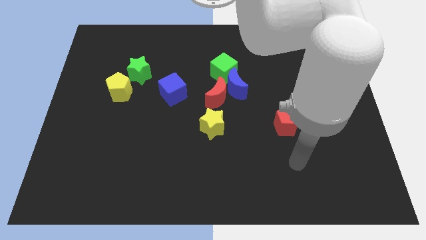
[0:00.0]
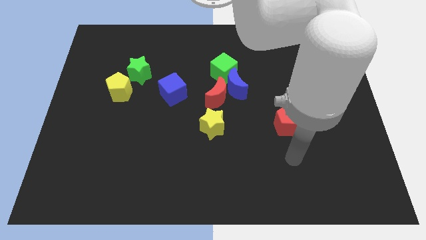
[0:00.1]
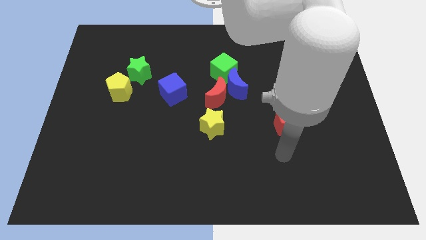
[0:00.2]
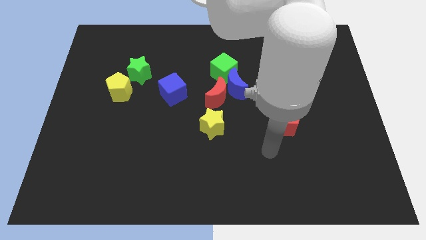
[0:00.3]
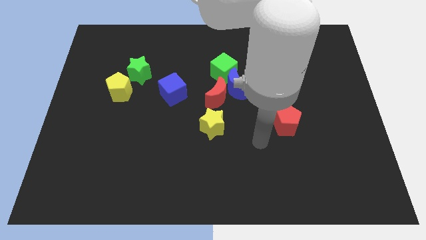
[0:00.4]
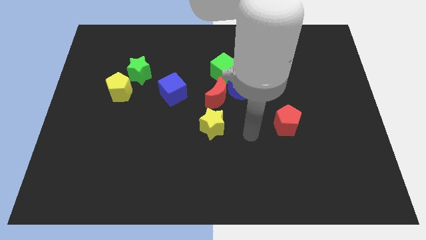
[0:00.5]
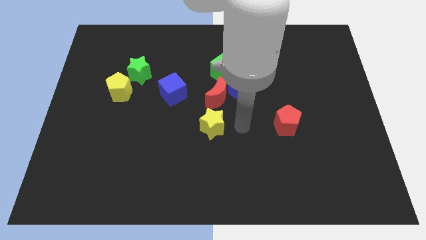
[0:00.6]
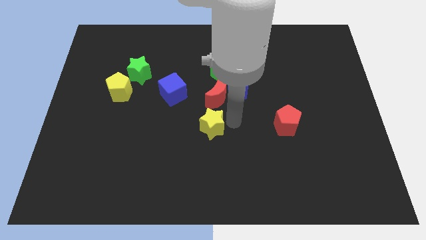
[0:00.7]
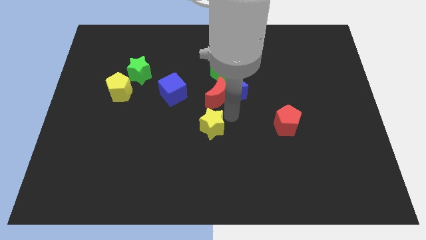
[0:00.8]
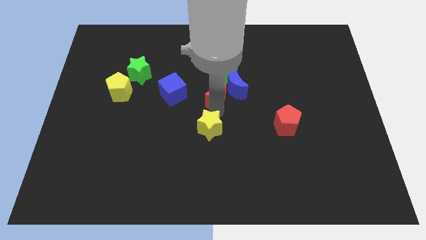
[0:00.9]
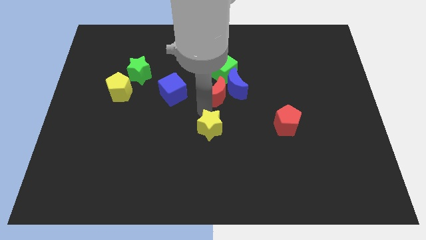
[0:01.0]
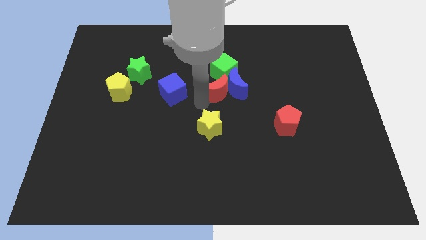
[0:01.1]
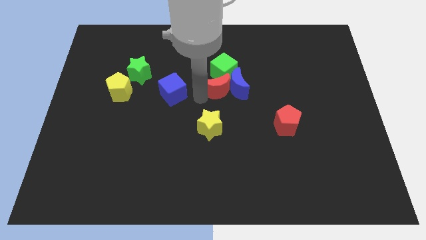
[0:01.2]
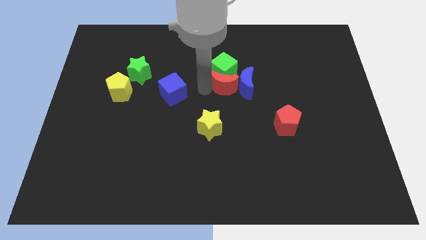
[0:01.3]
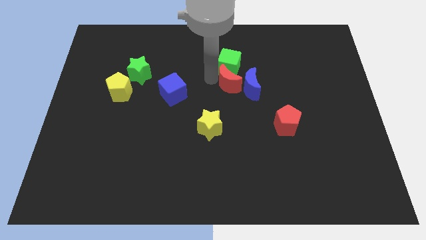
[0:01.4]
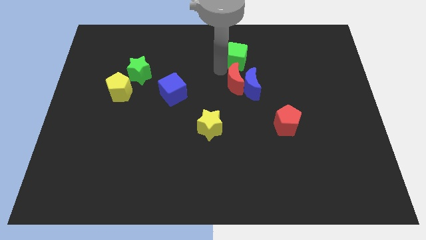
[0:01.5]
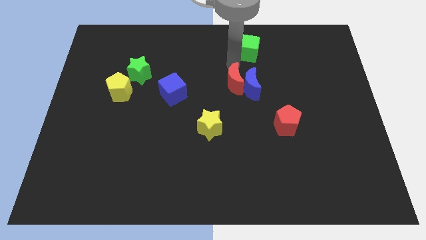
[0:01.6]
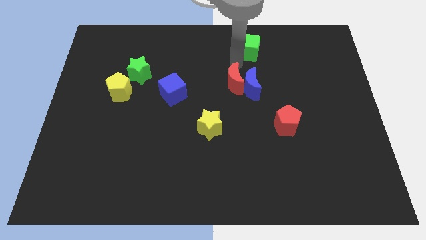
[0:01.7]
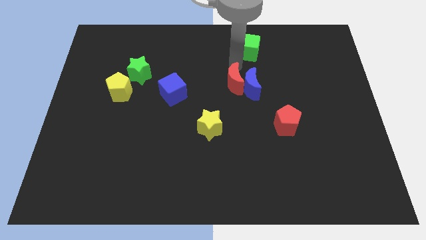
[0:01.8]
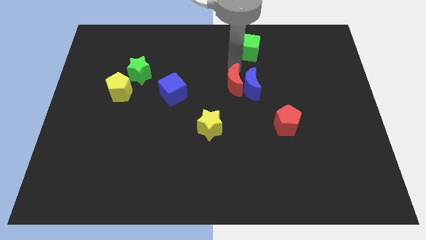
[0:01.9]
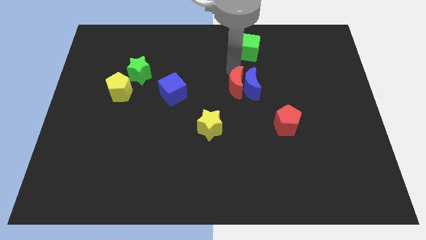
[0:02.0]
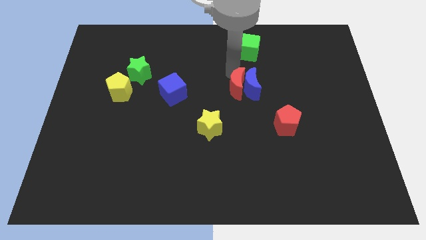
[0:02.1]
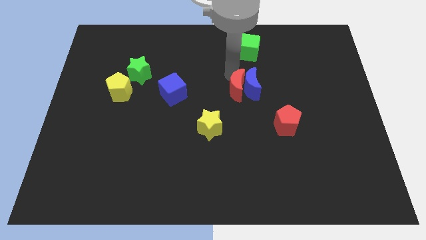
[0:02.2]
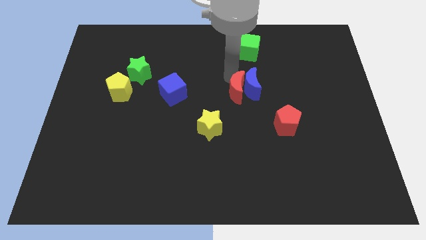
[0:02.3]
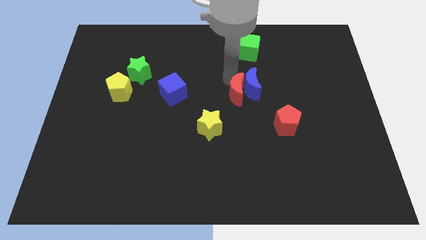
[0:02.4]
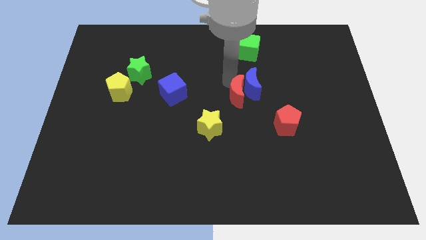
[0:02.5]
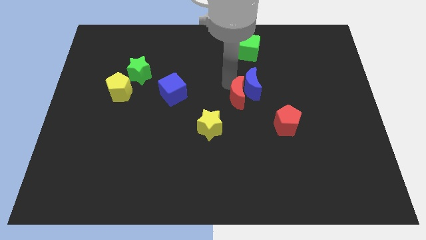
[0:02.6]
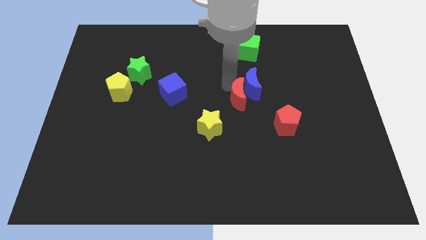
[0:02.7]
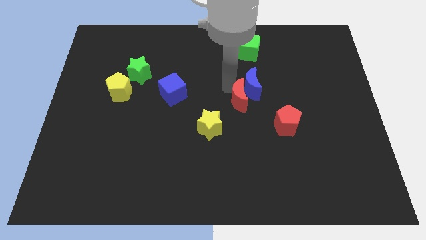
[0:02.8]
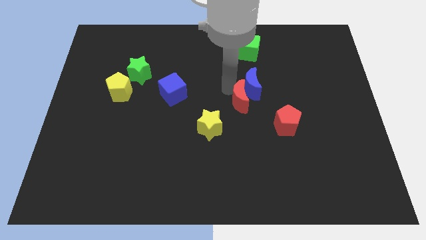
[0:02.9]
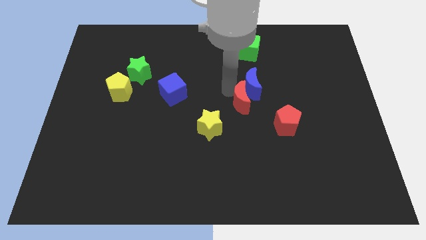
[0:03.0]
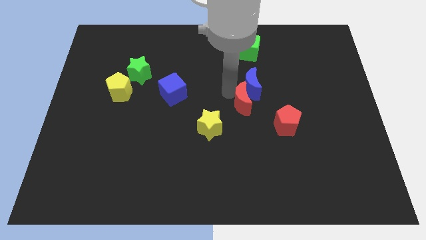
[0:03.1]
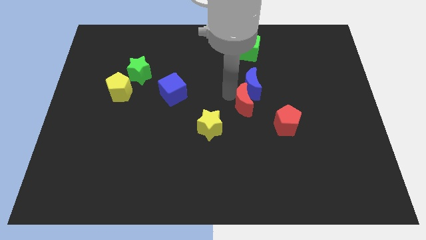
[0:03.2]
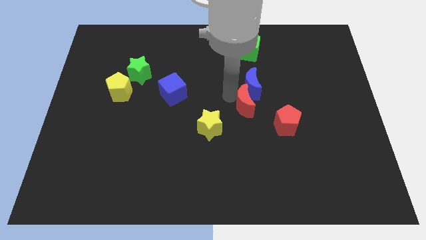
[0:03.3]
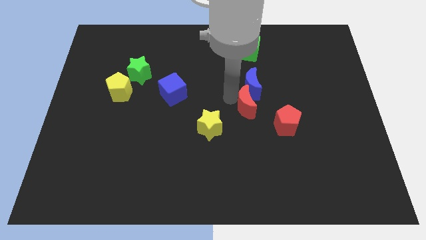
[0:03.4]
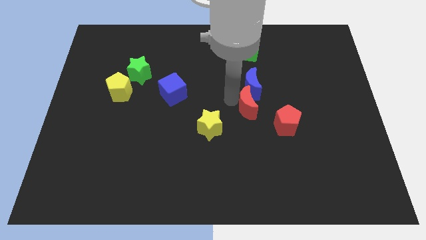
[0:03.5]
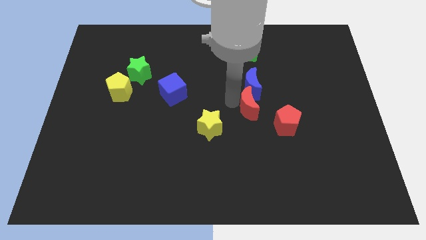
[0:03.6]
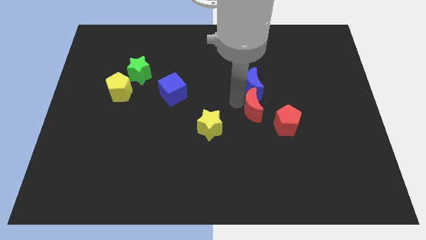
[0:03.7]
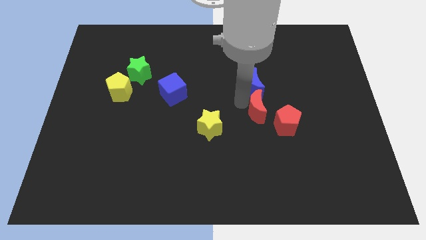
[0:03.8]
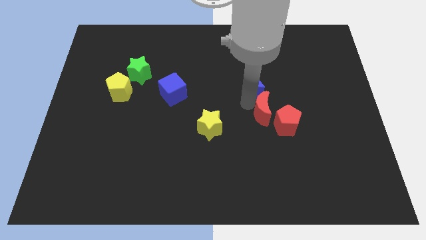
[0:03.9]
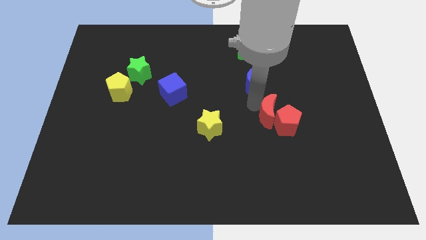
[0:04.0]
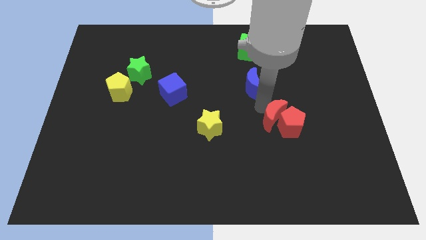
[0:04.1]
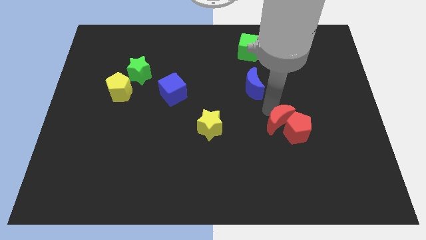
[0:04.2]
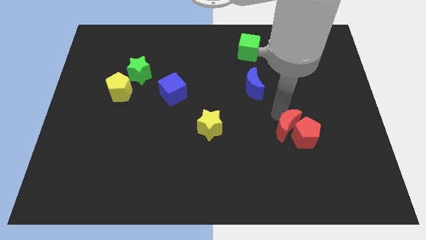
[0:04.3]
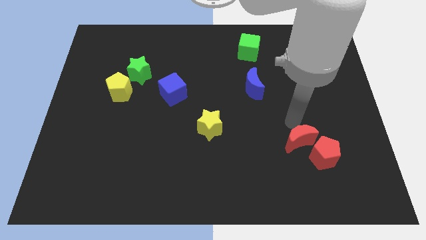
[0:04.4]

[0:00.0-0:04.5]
push the red moon down and then to the right

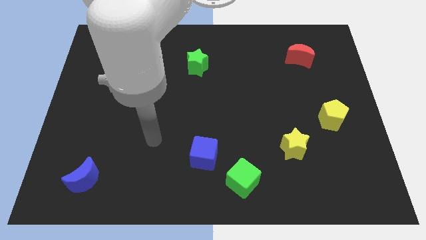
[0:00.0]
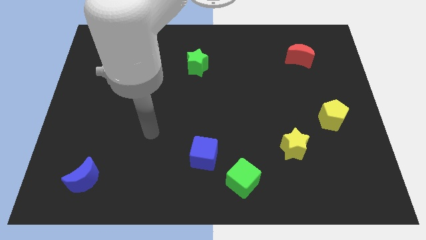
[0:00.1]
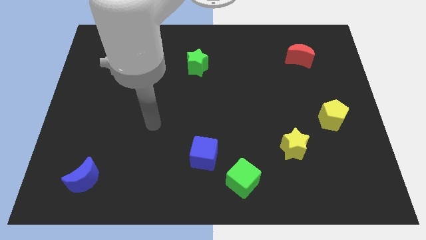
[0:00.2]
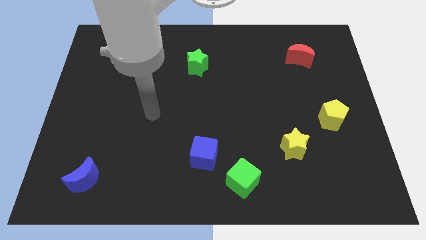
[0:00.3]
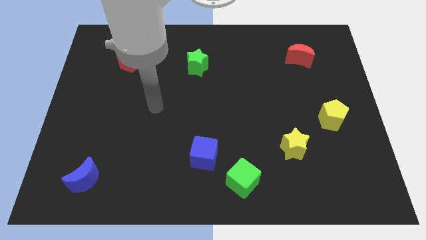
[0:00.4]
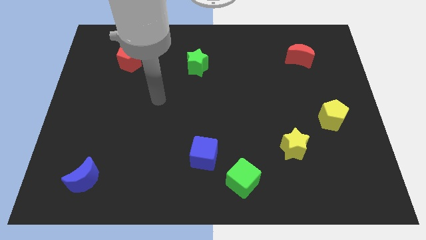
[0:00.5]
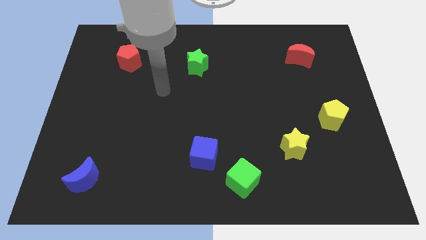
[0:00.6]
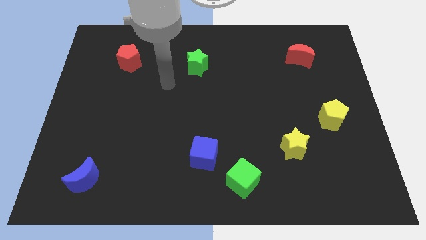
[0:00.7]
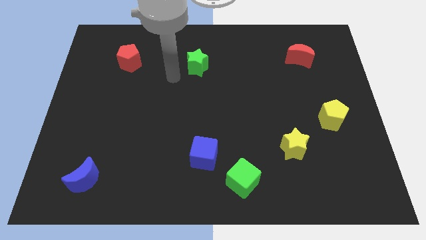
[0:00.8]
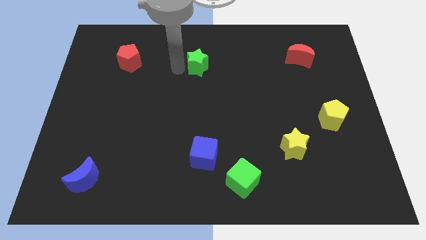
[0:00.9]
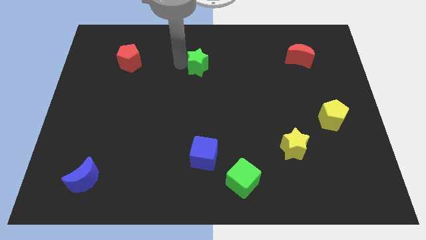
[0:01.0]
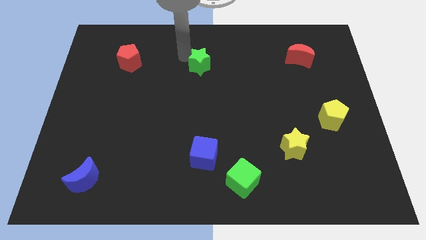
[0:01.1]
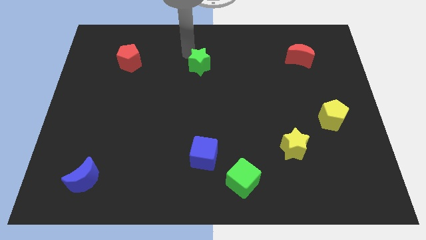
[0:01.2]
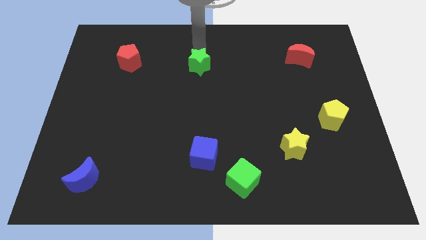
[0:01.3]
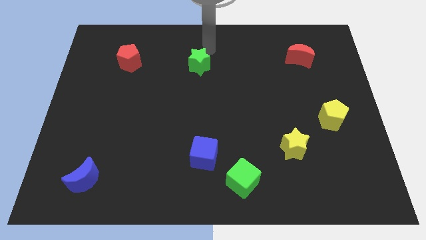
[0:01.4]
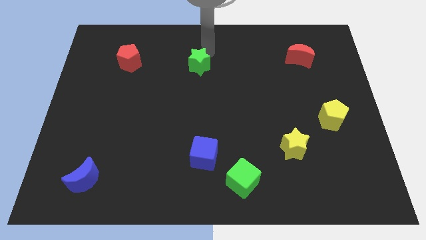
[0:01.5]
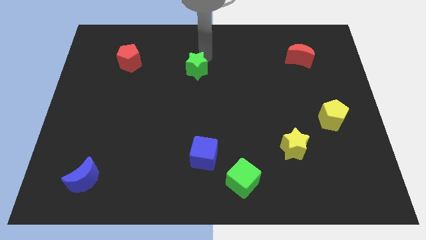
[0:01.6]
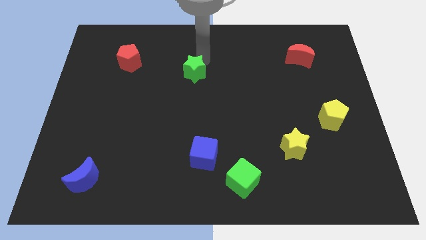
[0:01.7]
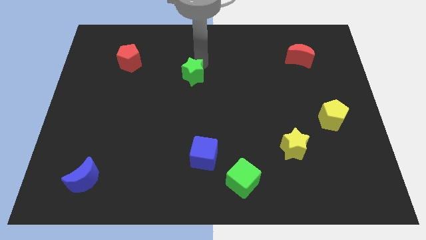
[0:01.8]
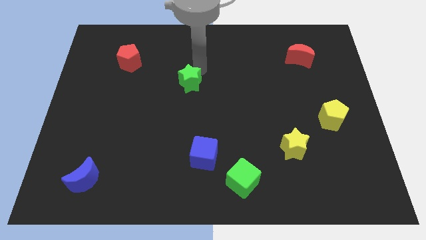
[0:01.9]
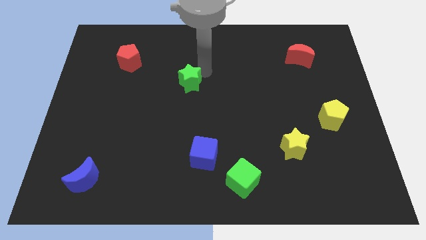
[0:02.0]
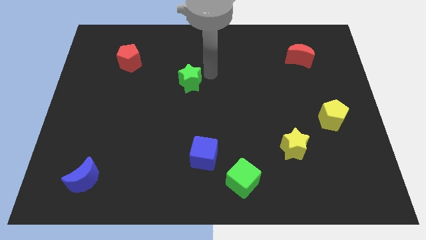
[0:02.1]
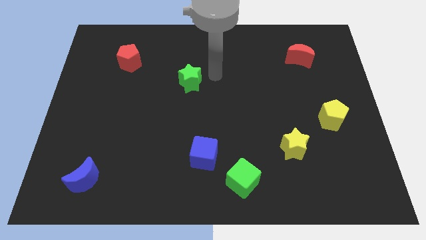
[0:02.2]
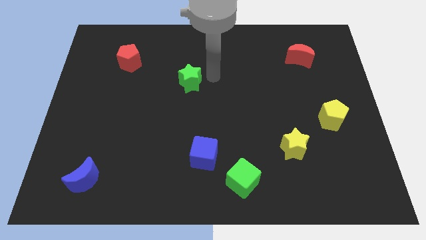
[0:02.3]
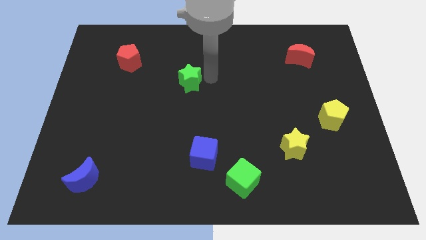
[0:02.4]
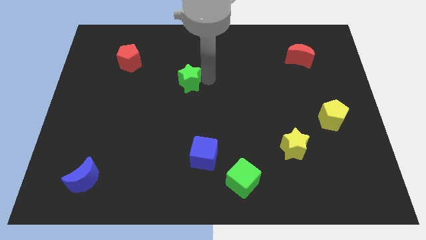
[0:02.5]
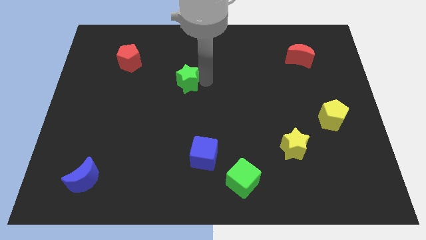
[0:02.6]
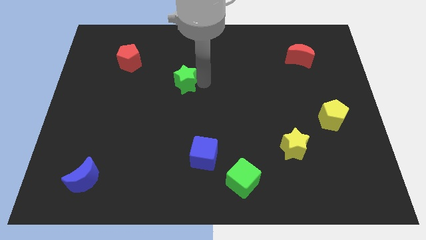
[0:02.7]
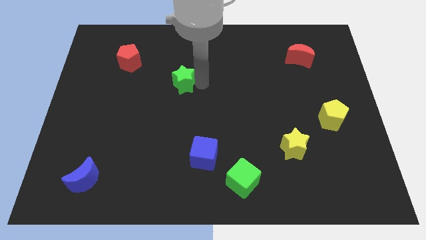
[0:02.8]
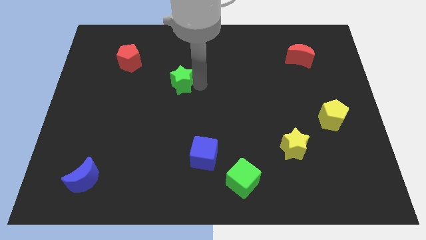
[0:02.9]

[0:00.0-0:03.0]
move the green star downwards and left a little

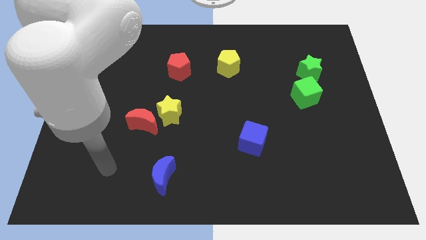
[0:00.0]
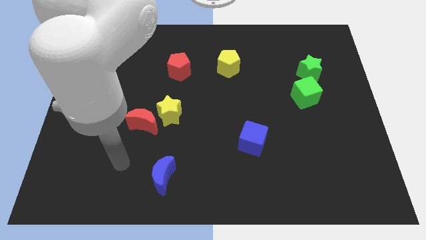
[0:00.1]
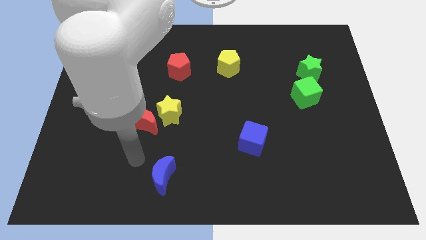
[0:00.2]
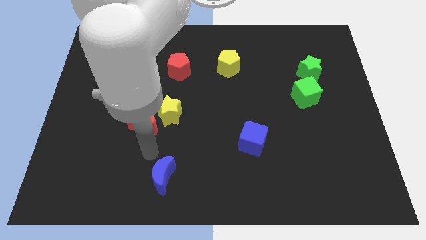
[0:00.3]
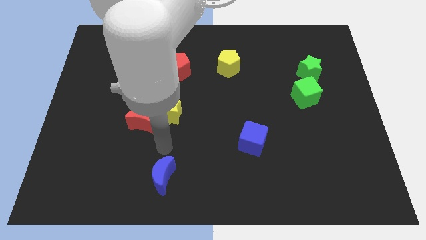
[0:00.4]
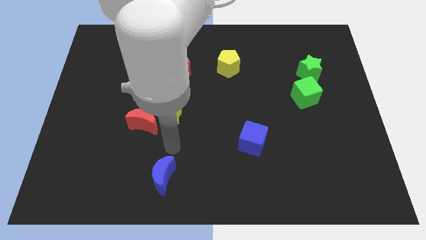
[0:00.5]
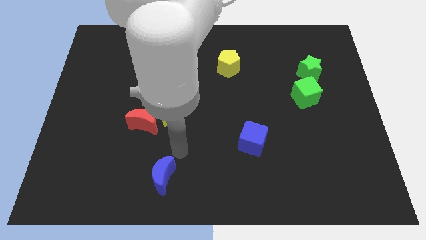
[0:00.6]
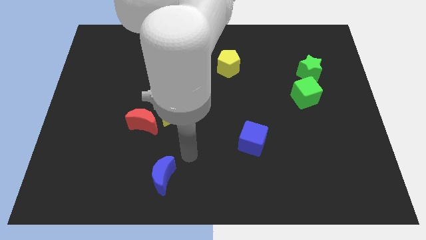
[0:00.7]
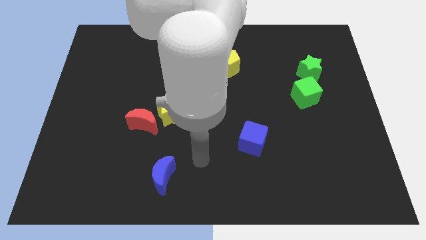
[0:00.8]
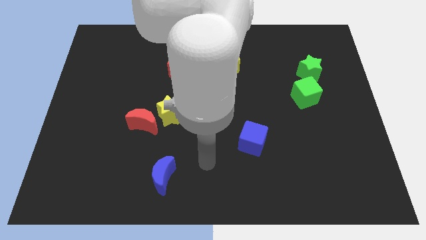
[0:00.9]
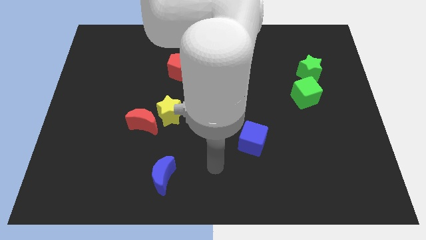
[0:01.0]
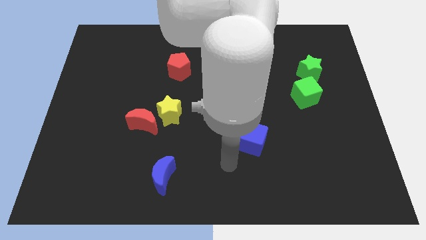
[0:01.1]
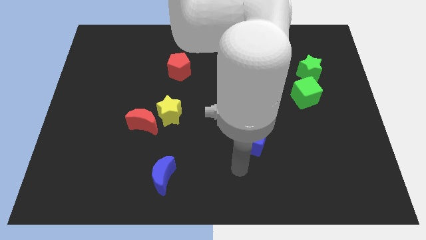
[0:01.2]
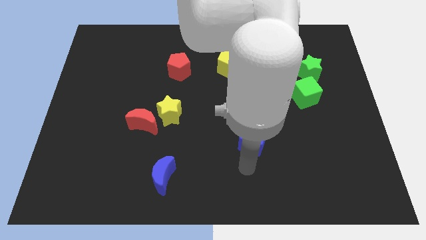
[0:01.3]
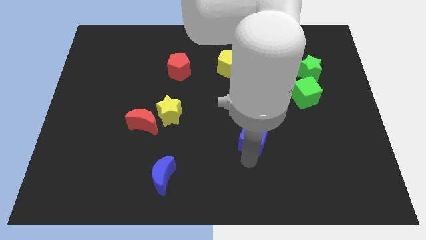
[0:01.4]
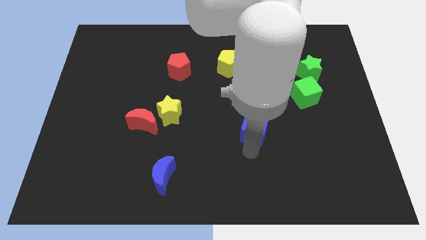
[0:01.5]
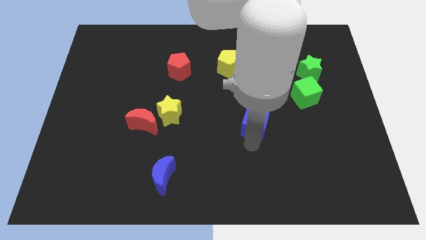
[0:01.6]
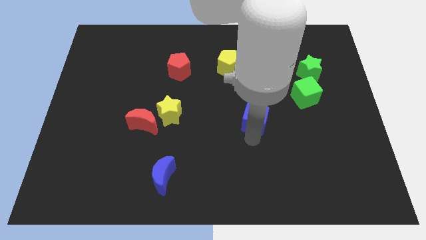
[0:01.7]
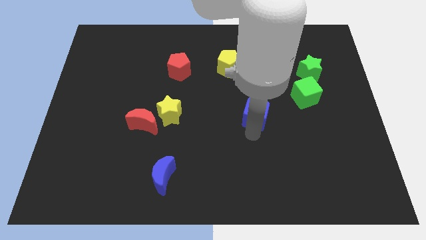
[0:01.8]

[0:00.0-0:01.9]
push the blue cube slightly up
